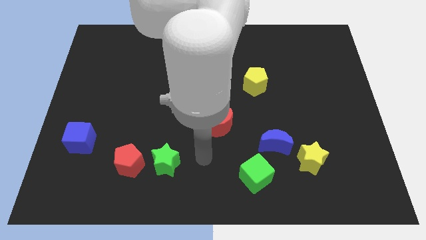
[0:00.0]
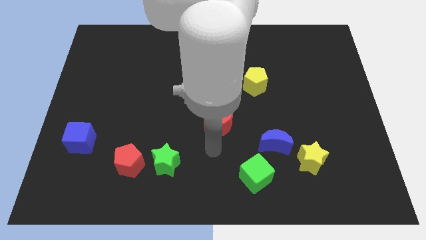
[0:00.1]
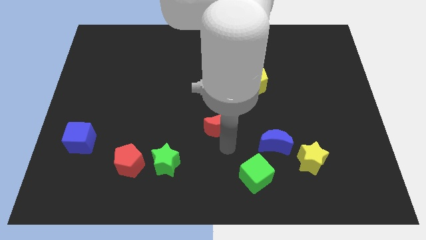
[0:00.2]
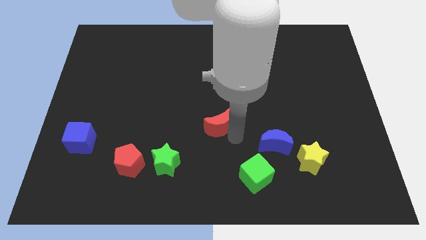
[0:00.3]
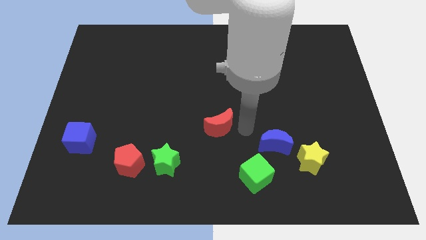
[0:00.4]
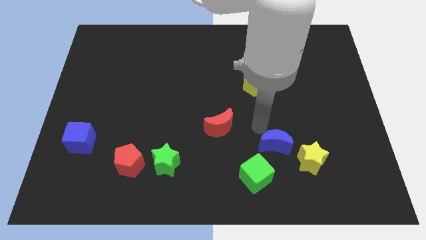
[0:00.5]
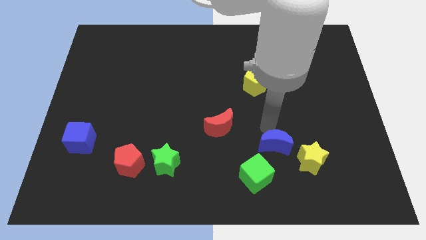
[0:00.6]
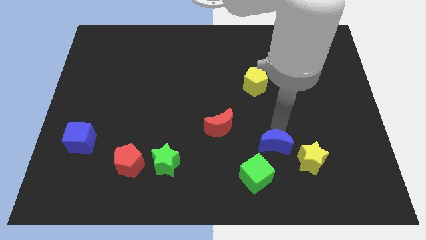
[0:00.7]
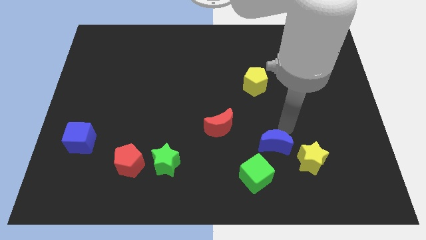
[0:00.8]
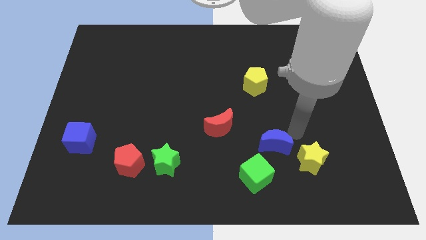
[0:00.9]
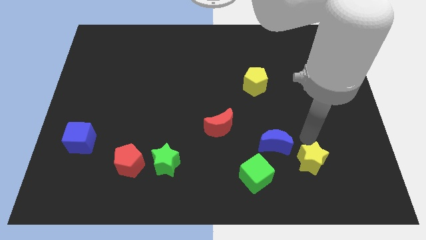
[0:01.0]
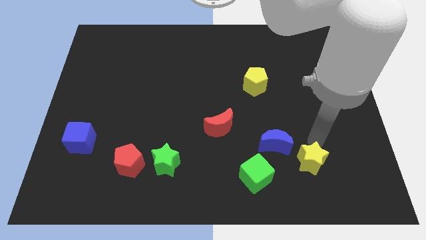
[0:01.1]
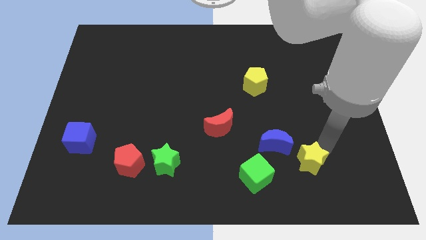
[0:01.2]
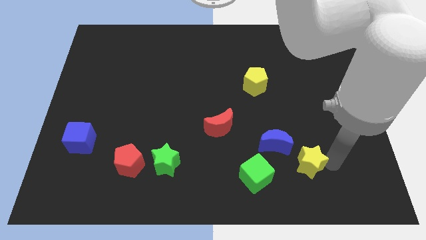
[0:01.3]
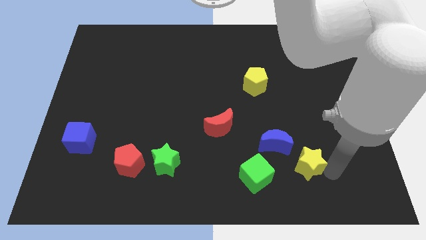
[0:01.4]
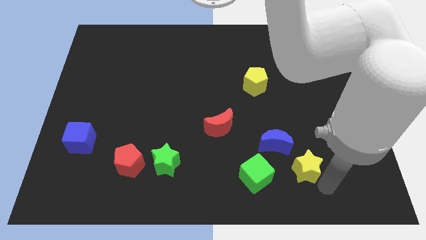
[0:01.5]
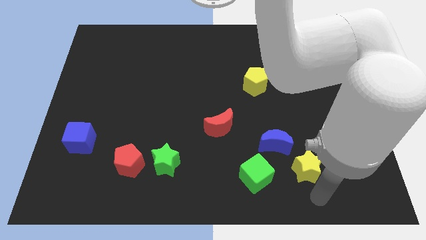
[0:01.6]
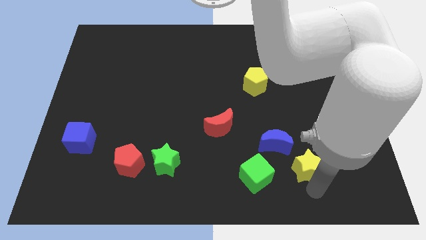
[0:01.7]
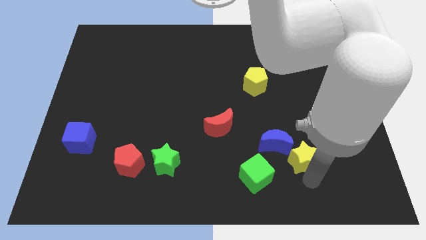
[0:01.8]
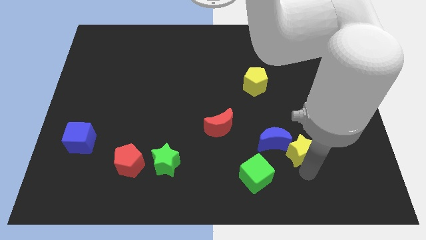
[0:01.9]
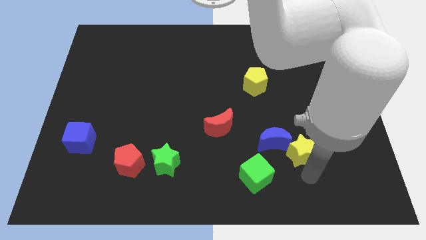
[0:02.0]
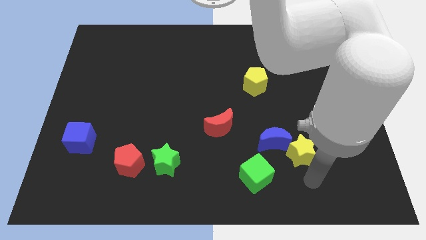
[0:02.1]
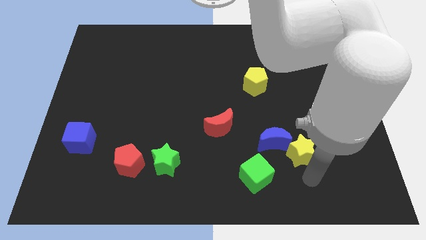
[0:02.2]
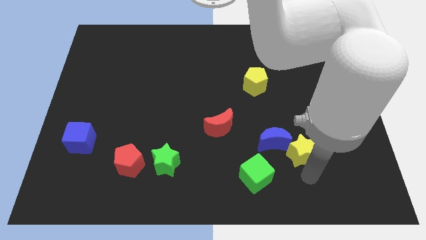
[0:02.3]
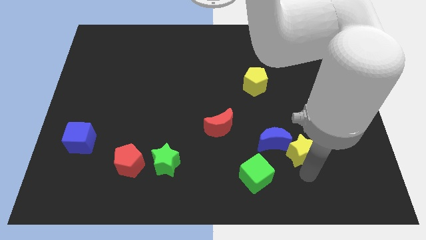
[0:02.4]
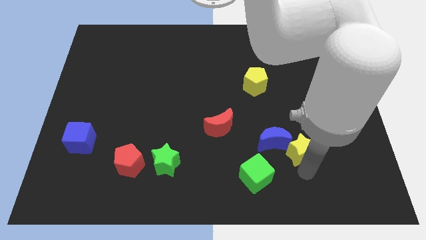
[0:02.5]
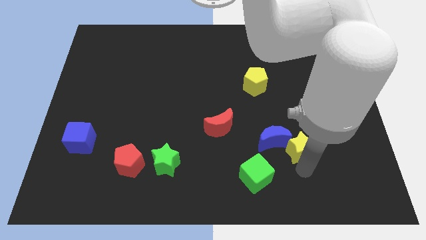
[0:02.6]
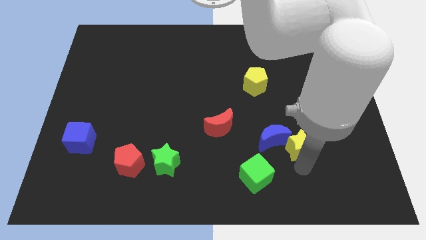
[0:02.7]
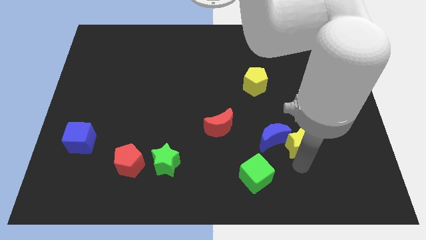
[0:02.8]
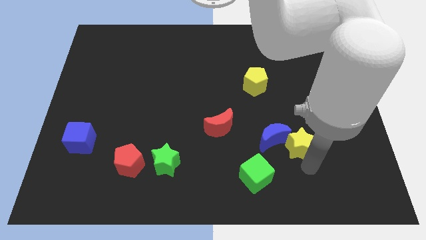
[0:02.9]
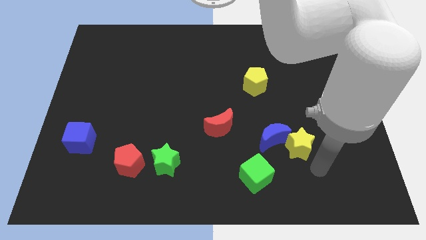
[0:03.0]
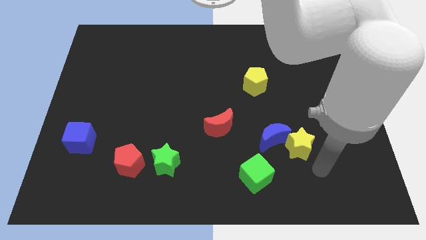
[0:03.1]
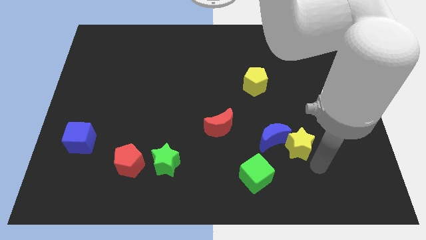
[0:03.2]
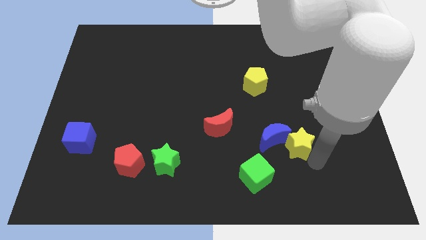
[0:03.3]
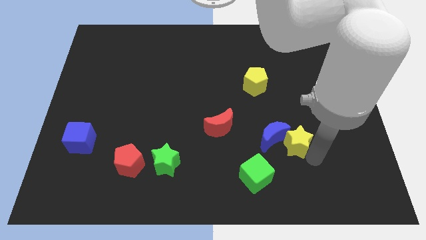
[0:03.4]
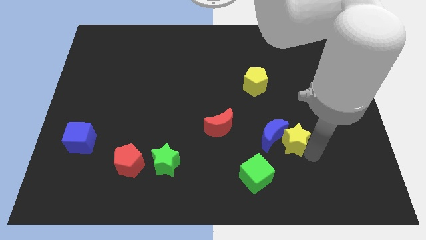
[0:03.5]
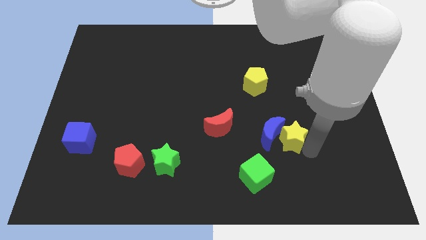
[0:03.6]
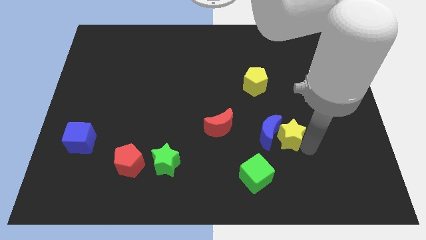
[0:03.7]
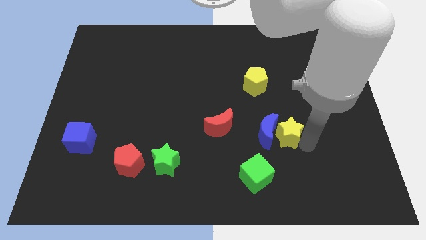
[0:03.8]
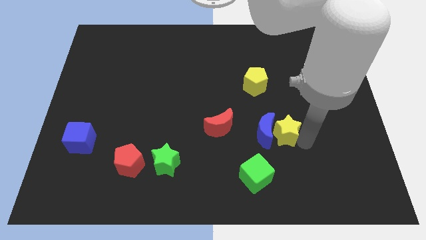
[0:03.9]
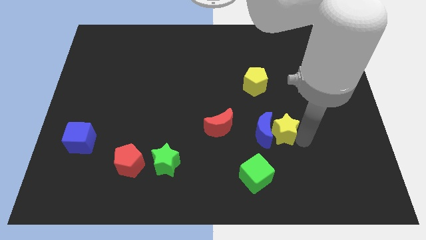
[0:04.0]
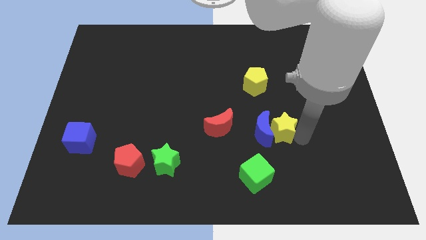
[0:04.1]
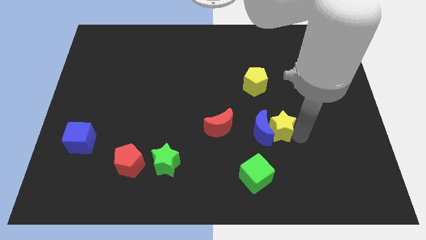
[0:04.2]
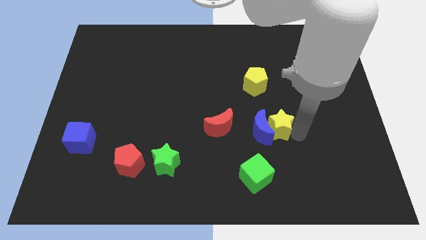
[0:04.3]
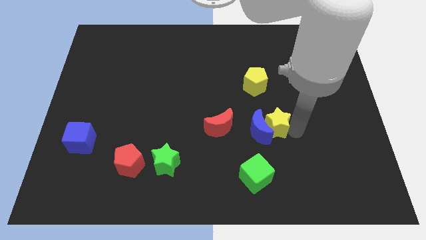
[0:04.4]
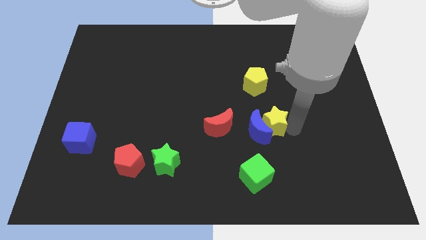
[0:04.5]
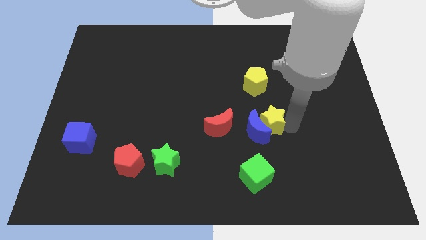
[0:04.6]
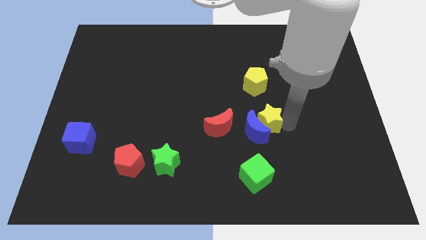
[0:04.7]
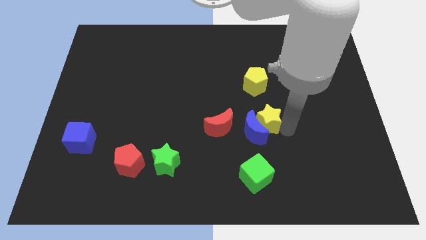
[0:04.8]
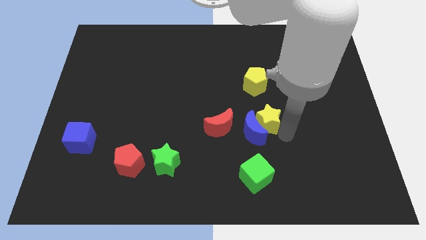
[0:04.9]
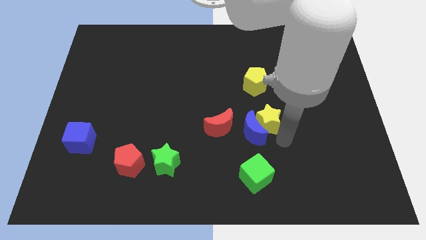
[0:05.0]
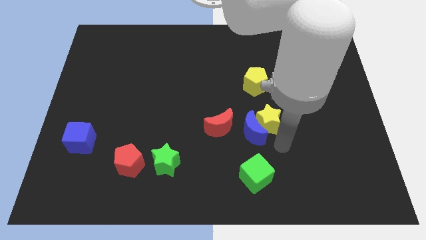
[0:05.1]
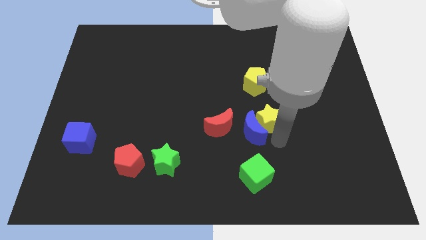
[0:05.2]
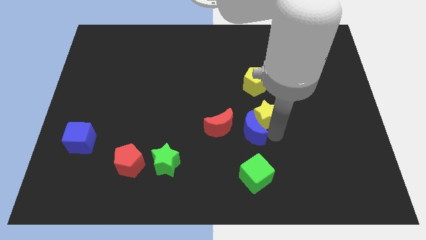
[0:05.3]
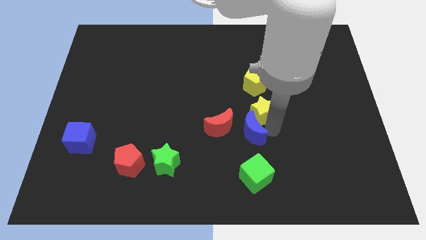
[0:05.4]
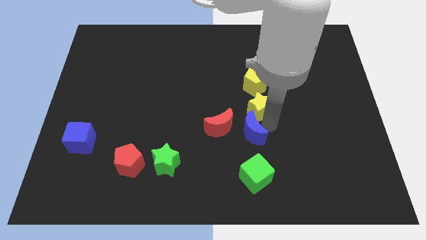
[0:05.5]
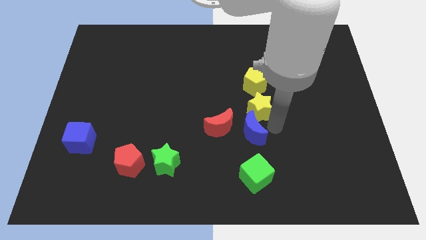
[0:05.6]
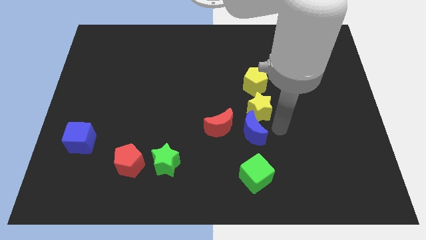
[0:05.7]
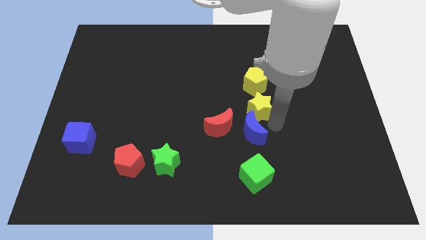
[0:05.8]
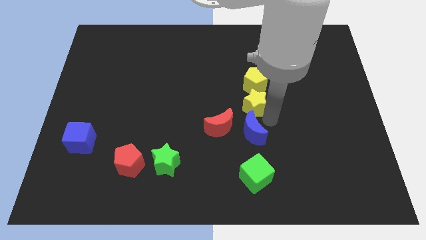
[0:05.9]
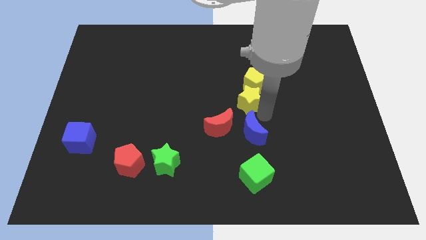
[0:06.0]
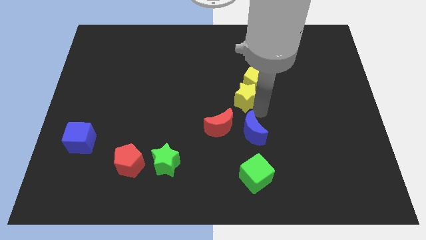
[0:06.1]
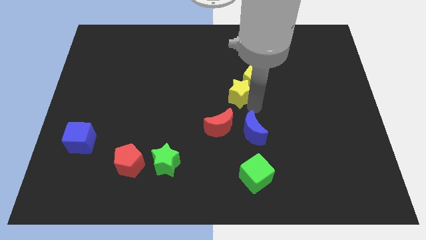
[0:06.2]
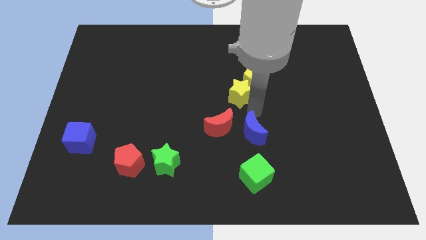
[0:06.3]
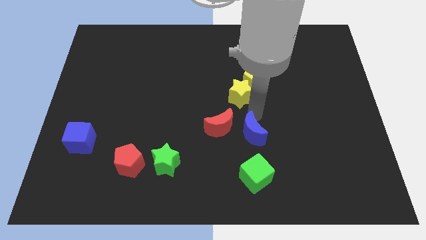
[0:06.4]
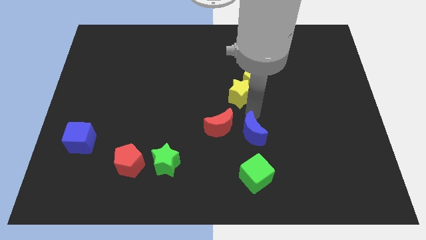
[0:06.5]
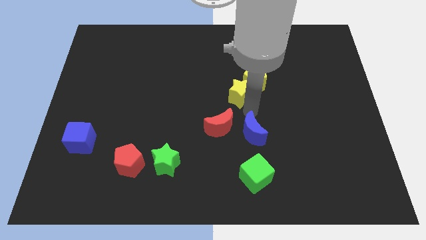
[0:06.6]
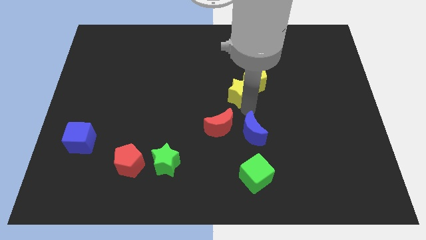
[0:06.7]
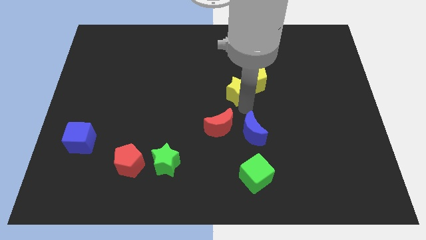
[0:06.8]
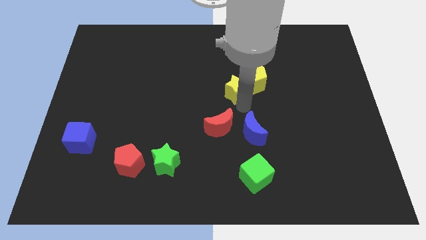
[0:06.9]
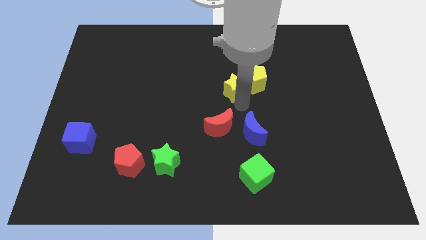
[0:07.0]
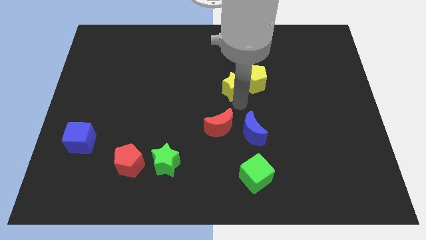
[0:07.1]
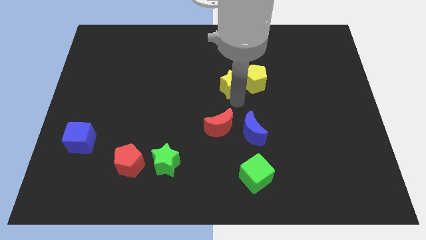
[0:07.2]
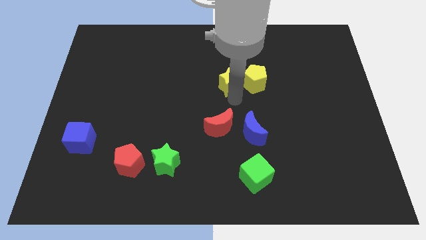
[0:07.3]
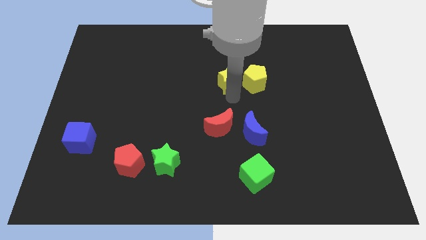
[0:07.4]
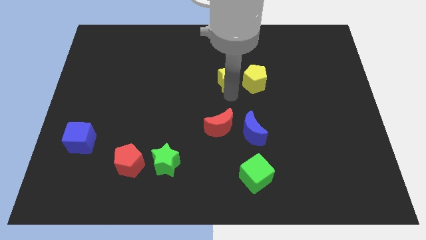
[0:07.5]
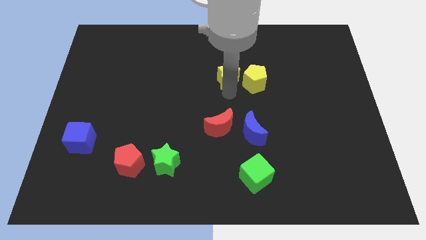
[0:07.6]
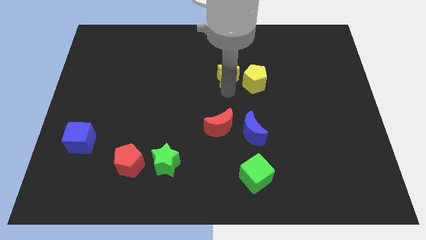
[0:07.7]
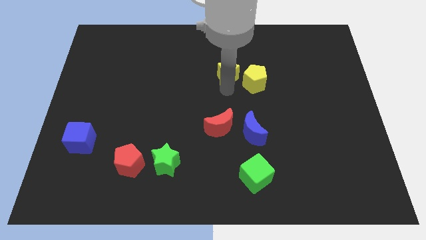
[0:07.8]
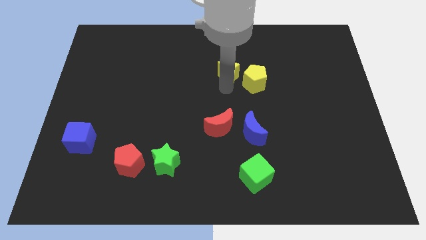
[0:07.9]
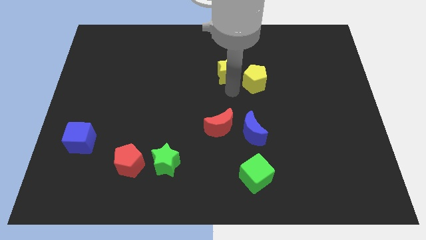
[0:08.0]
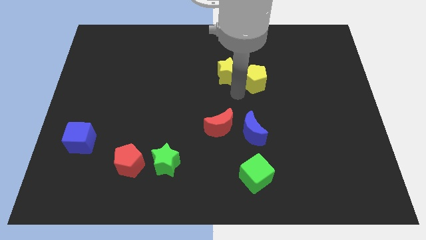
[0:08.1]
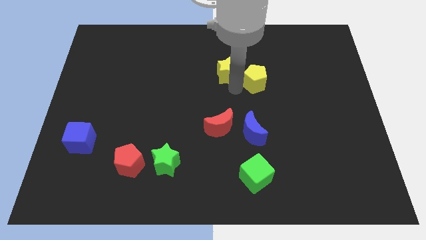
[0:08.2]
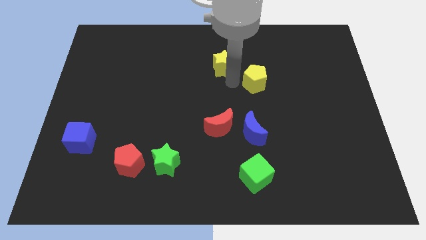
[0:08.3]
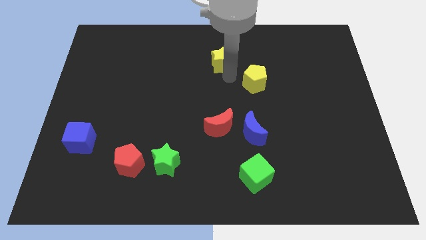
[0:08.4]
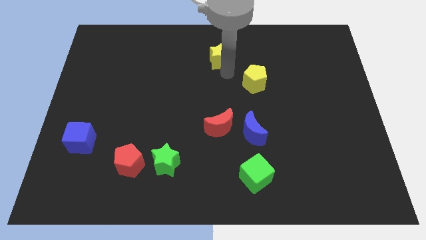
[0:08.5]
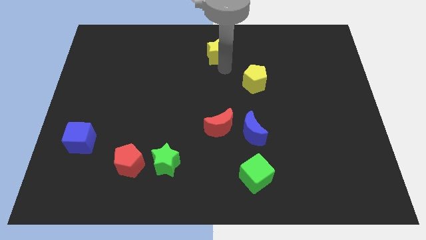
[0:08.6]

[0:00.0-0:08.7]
put the yellow star to the towards your base
